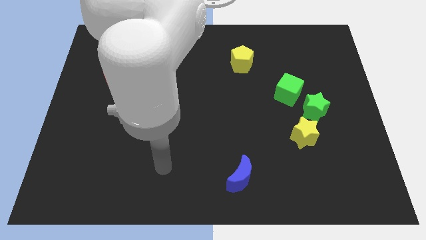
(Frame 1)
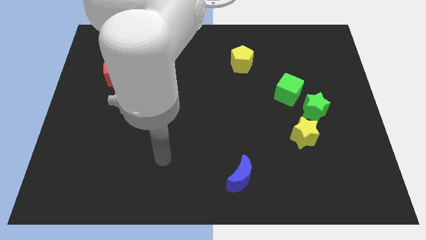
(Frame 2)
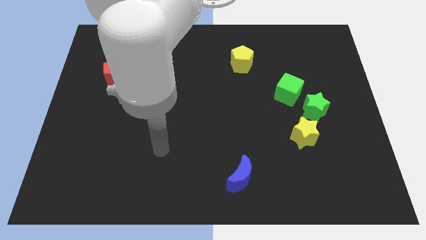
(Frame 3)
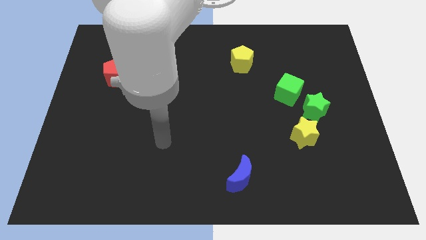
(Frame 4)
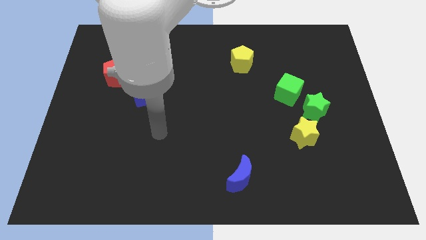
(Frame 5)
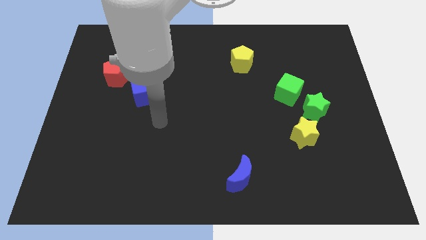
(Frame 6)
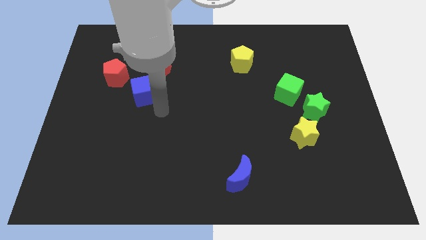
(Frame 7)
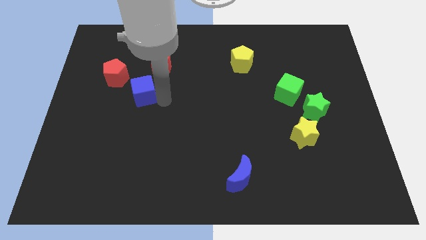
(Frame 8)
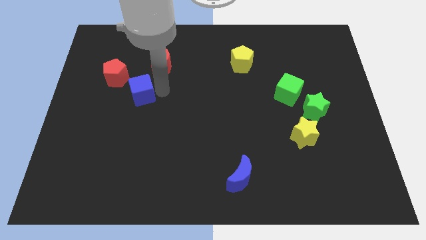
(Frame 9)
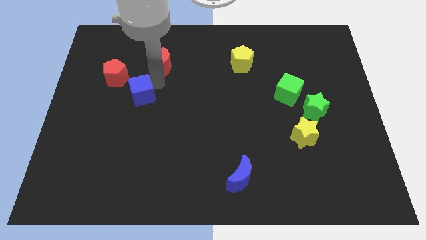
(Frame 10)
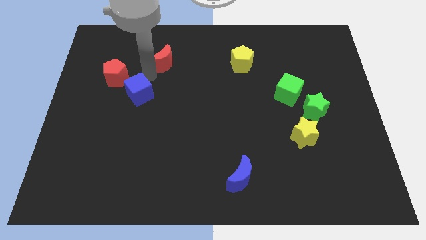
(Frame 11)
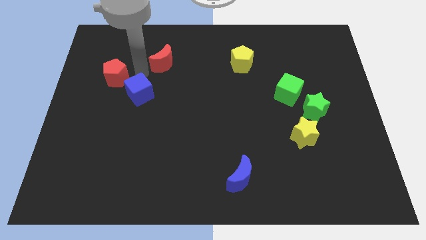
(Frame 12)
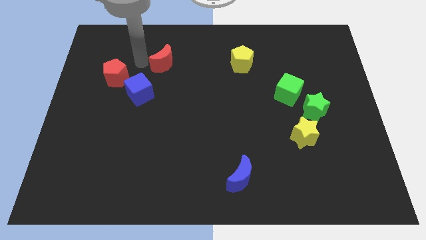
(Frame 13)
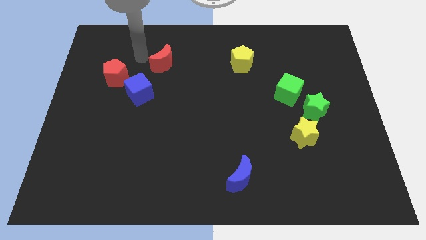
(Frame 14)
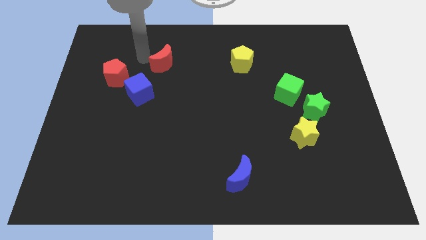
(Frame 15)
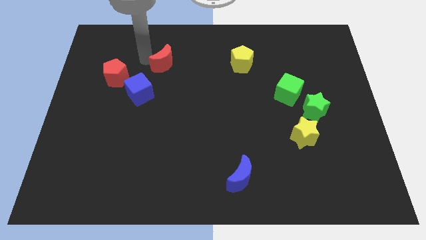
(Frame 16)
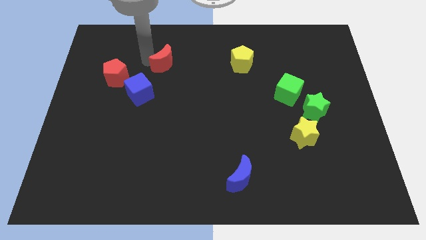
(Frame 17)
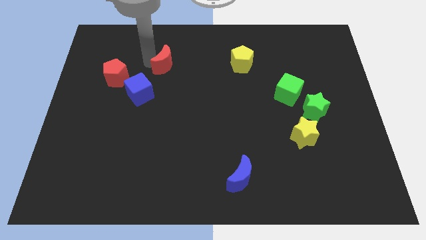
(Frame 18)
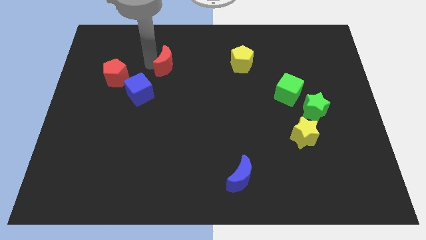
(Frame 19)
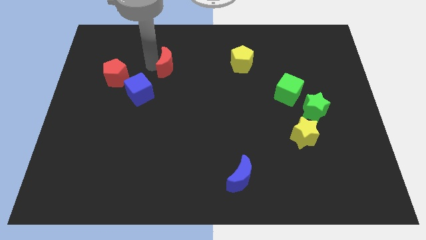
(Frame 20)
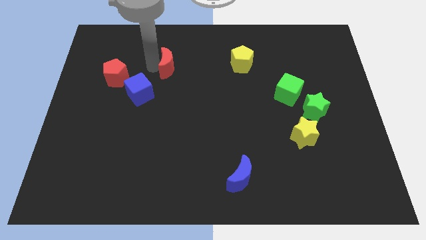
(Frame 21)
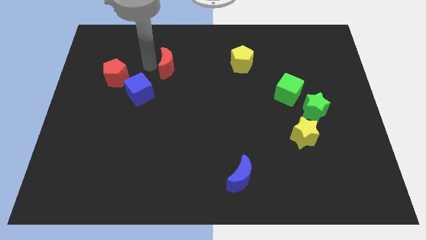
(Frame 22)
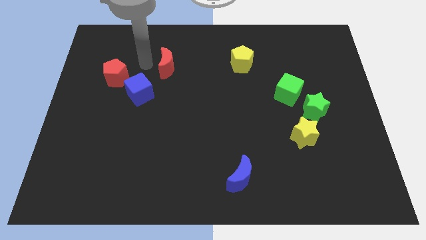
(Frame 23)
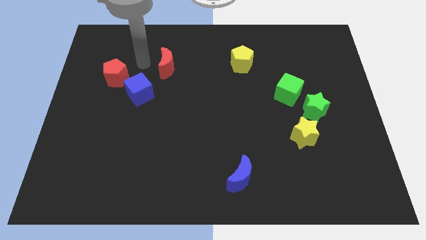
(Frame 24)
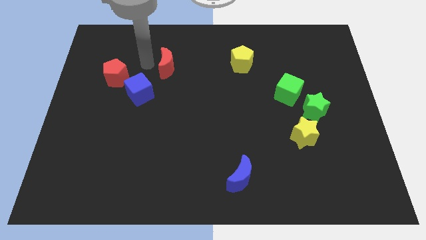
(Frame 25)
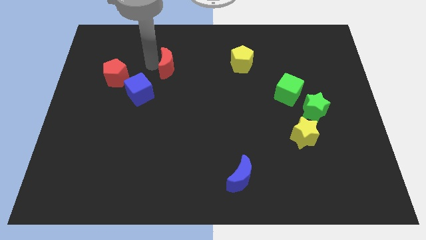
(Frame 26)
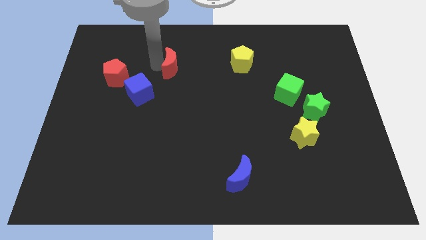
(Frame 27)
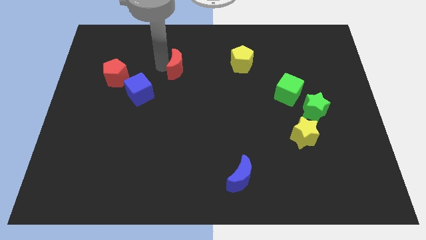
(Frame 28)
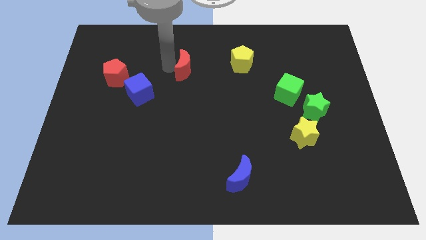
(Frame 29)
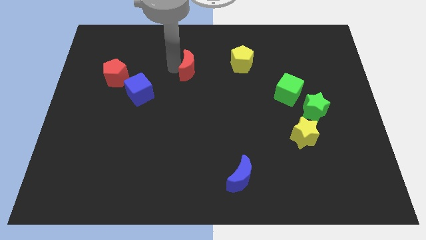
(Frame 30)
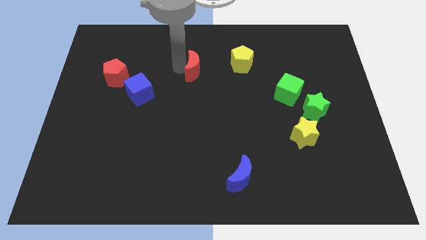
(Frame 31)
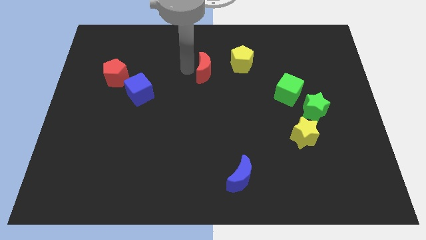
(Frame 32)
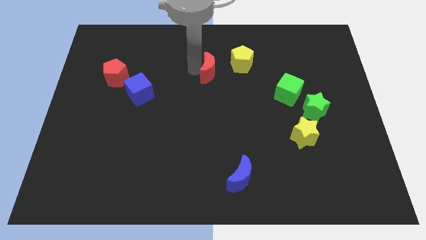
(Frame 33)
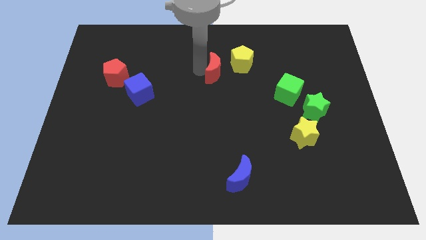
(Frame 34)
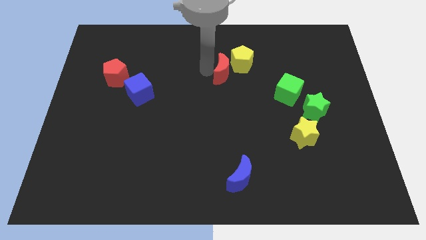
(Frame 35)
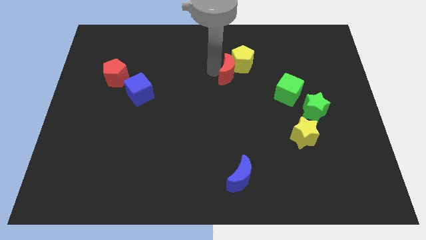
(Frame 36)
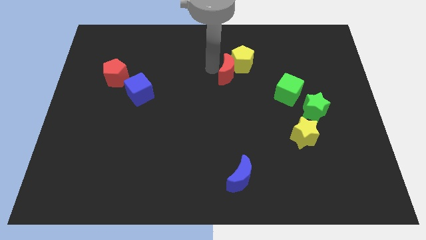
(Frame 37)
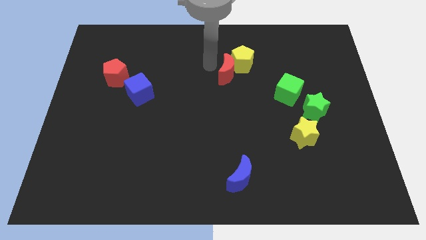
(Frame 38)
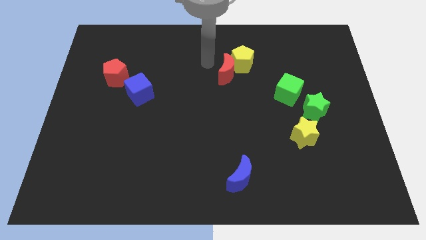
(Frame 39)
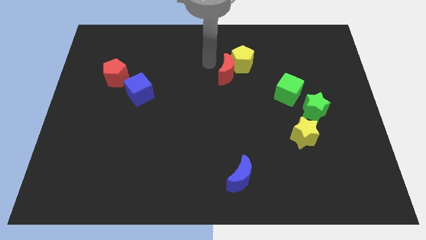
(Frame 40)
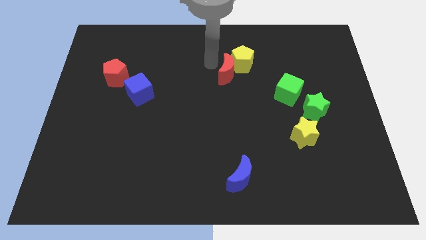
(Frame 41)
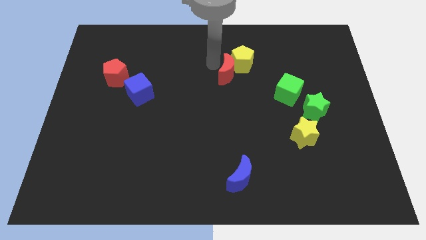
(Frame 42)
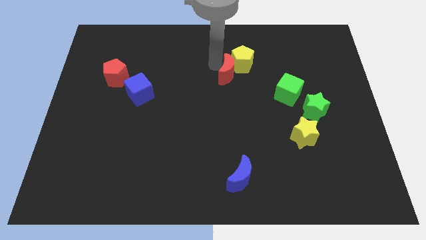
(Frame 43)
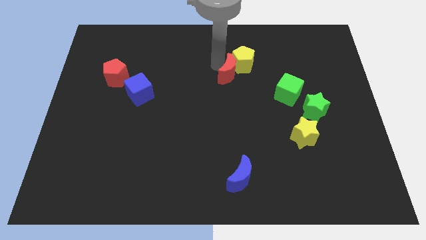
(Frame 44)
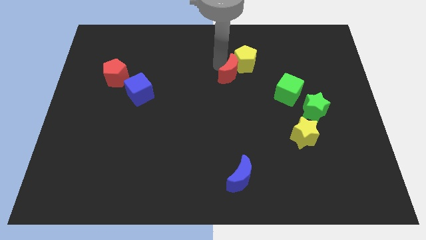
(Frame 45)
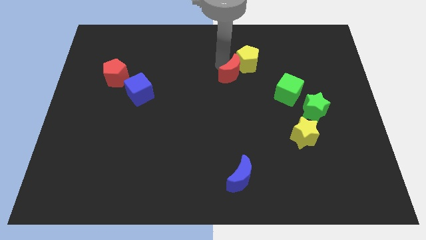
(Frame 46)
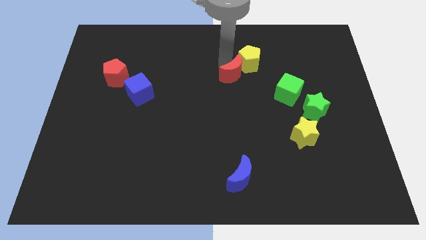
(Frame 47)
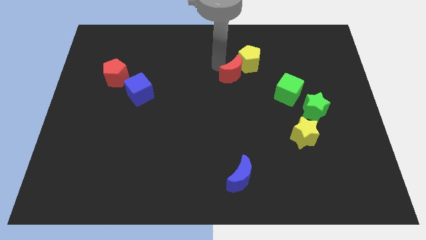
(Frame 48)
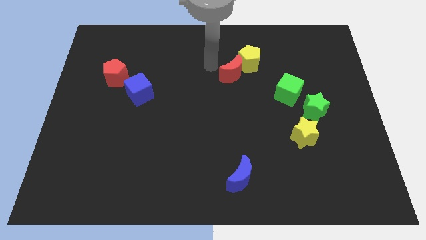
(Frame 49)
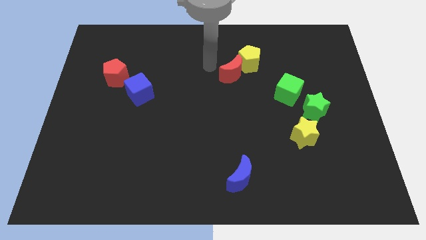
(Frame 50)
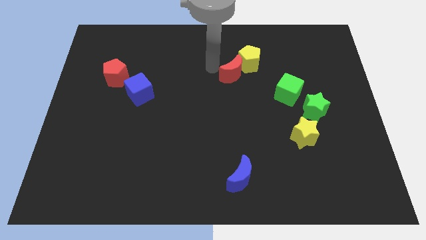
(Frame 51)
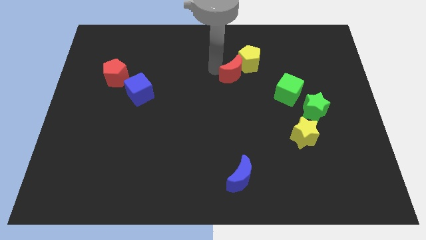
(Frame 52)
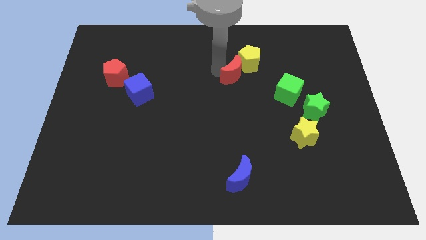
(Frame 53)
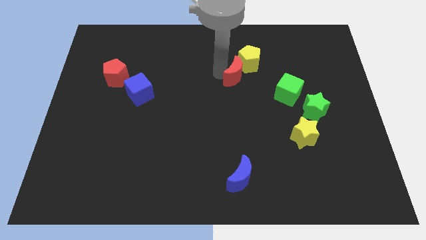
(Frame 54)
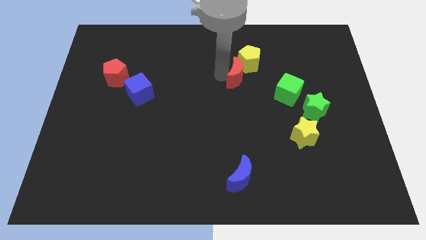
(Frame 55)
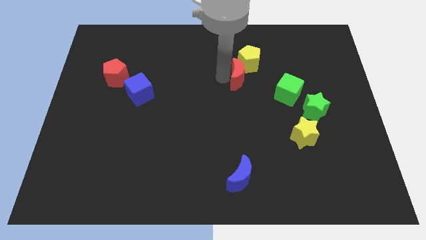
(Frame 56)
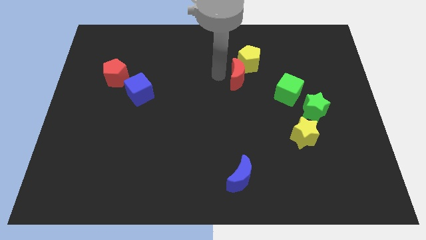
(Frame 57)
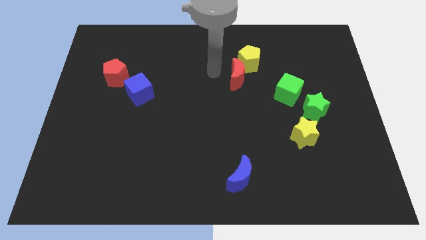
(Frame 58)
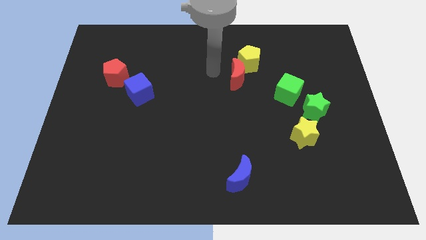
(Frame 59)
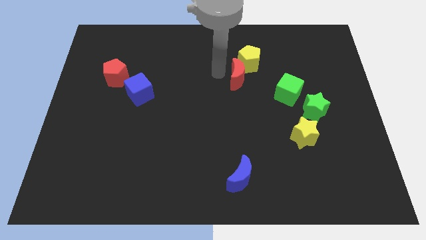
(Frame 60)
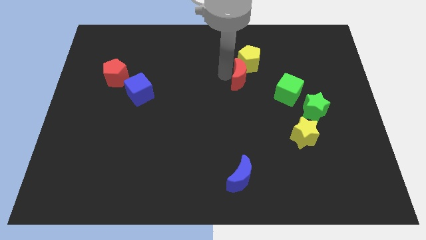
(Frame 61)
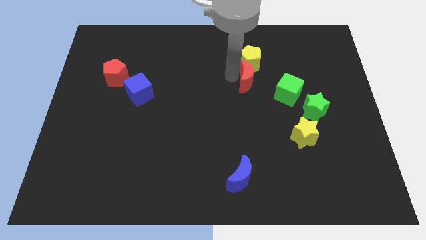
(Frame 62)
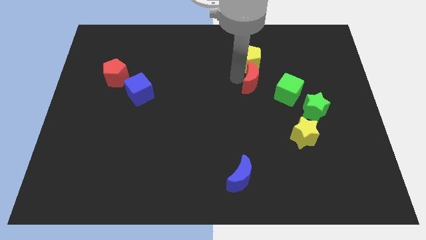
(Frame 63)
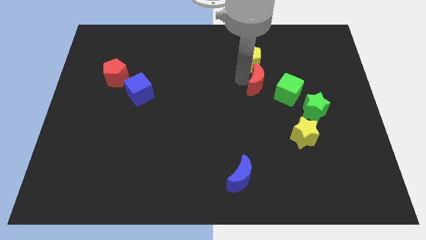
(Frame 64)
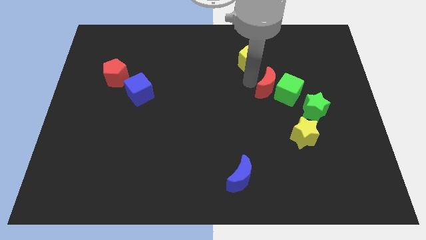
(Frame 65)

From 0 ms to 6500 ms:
move the red moon towards the green cube

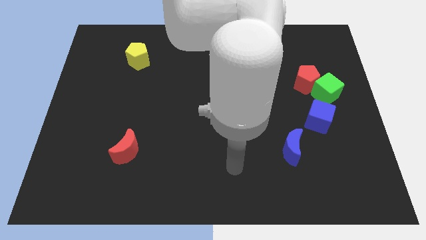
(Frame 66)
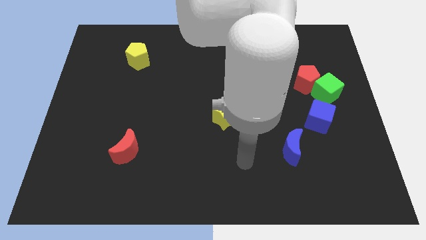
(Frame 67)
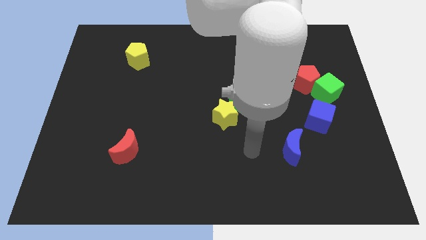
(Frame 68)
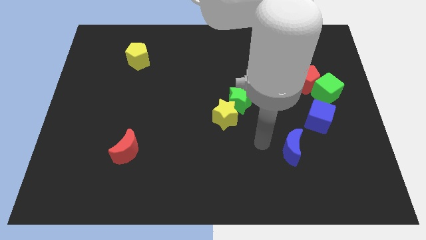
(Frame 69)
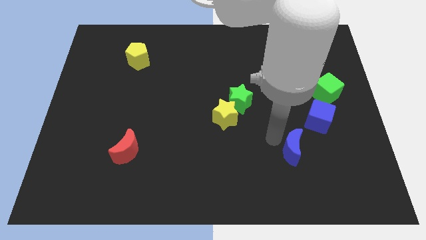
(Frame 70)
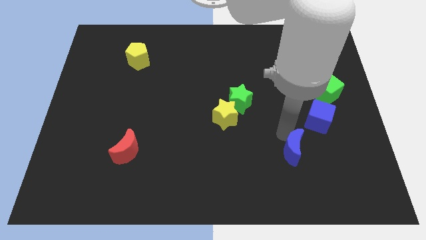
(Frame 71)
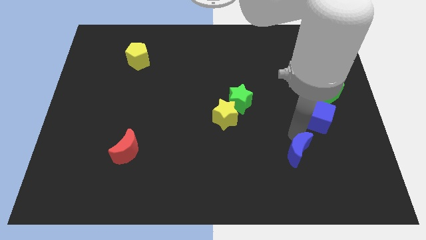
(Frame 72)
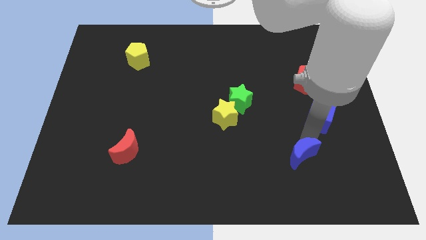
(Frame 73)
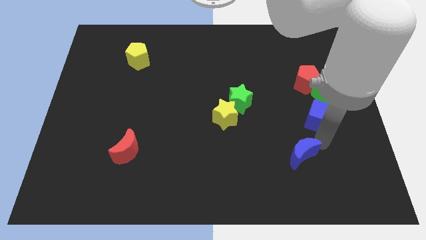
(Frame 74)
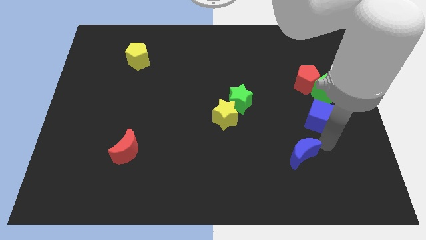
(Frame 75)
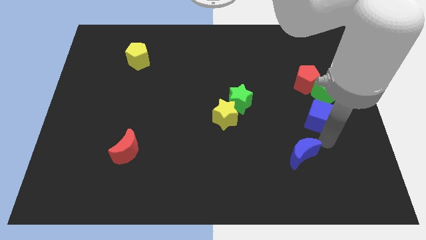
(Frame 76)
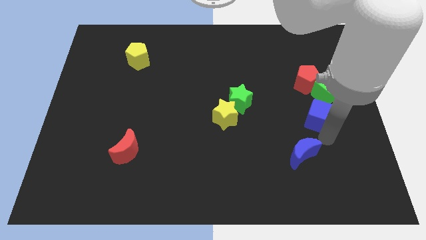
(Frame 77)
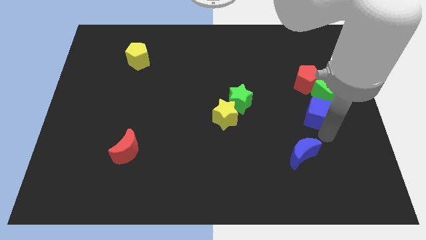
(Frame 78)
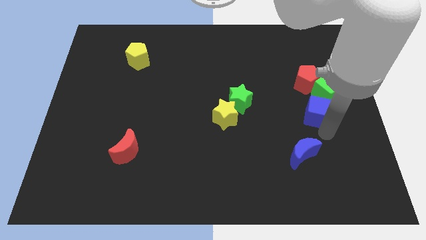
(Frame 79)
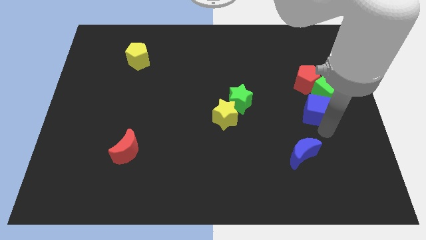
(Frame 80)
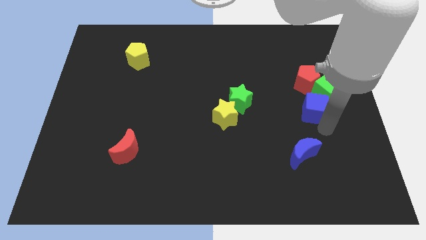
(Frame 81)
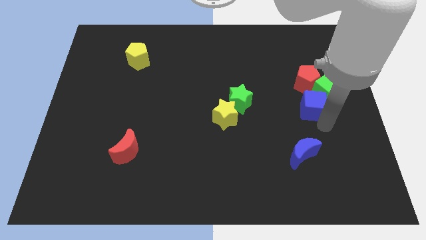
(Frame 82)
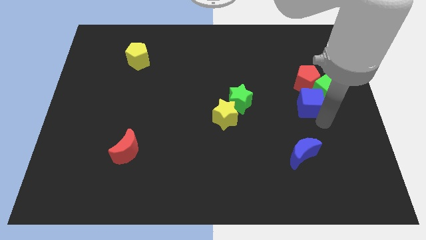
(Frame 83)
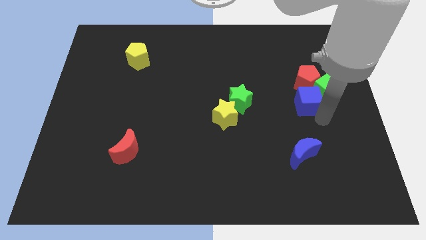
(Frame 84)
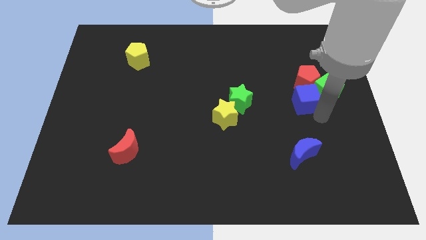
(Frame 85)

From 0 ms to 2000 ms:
push the blue cube next to the red pentagon
